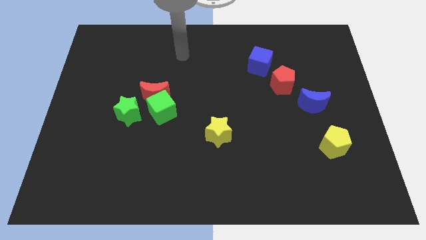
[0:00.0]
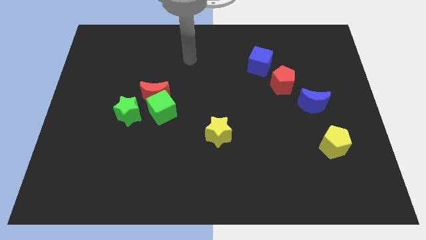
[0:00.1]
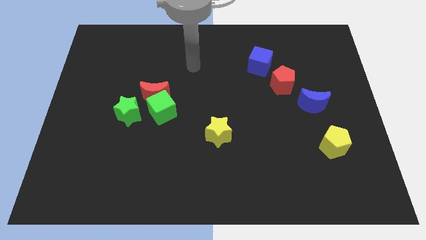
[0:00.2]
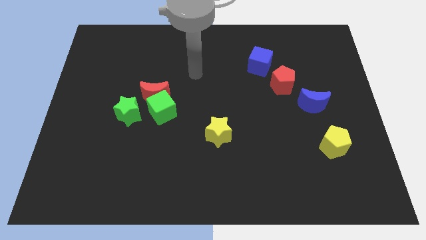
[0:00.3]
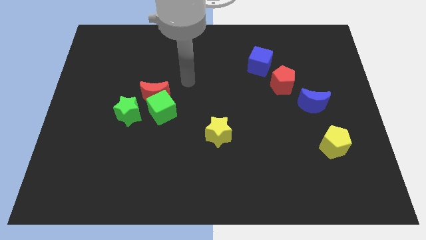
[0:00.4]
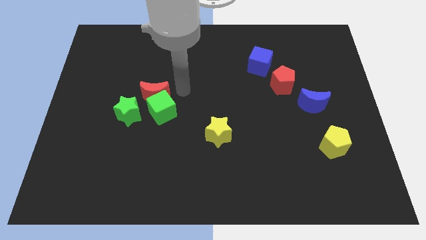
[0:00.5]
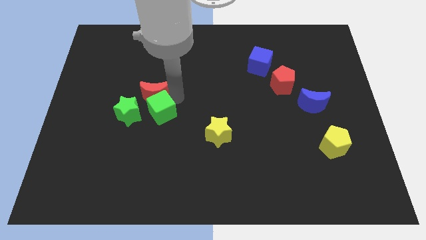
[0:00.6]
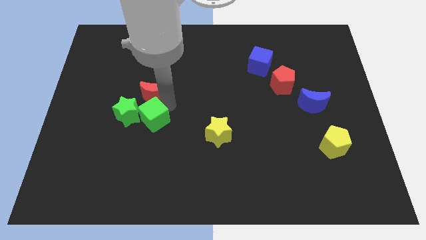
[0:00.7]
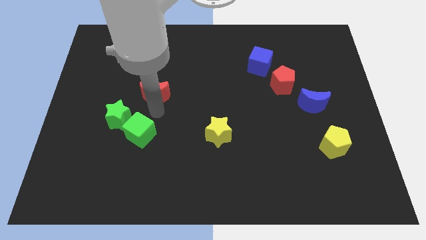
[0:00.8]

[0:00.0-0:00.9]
separate the red moon from the green cube and green star

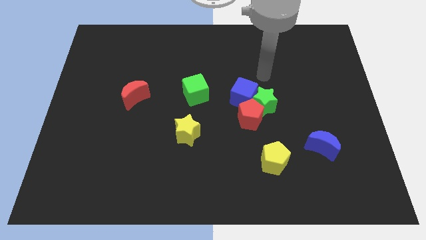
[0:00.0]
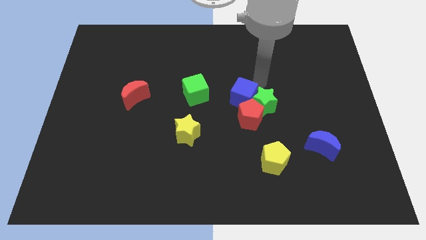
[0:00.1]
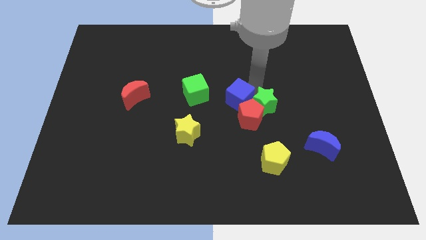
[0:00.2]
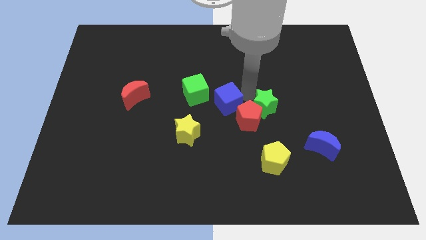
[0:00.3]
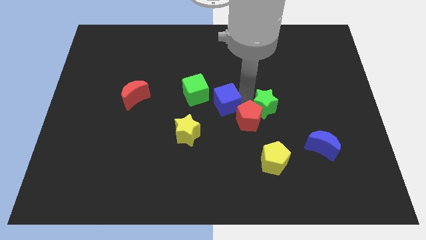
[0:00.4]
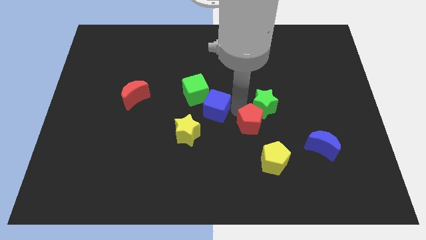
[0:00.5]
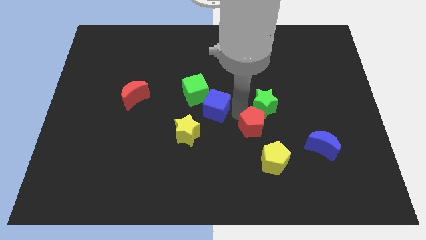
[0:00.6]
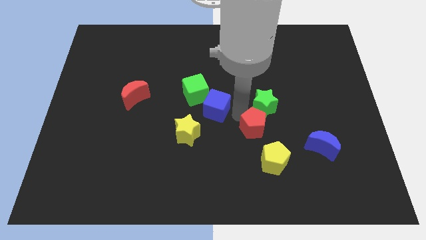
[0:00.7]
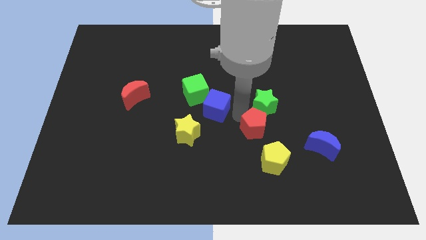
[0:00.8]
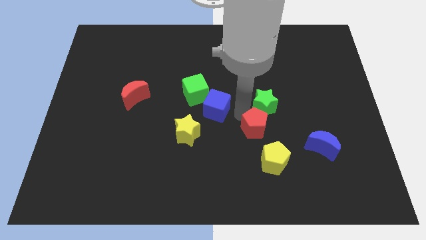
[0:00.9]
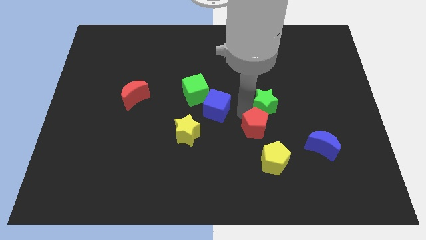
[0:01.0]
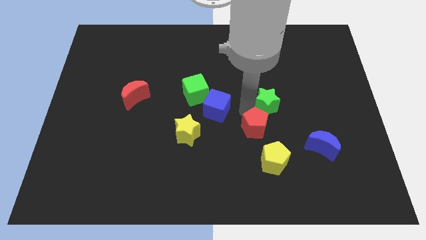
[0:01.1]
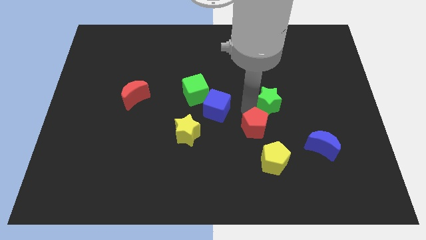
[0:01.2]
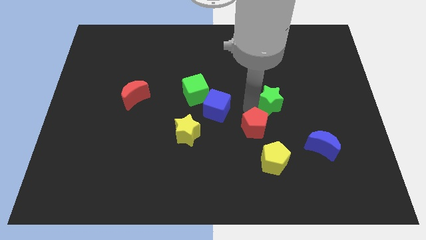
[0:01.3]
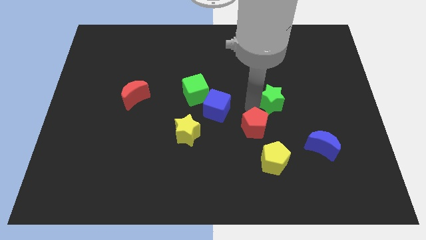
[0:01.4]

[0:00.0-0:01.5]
separate the green star from the red pentagon and blue cube

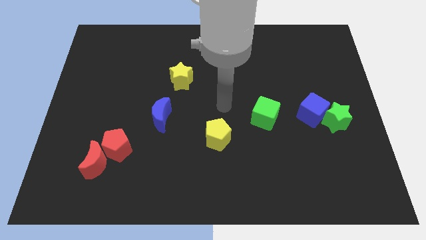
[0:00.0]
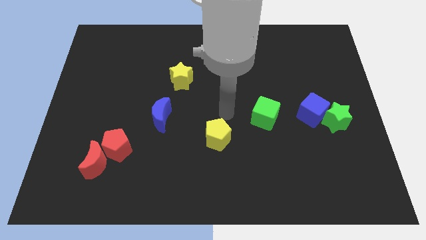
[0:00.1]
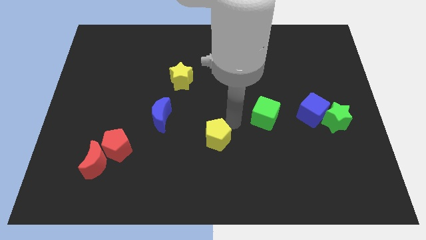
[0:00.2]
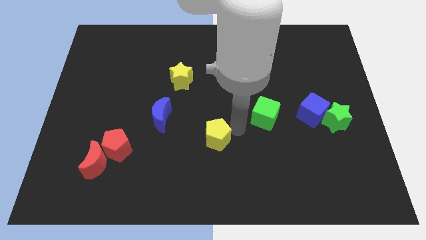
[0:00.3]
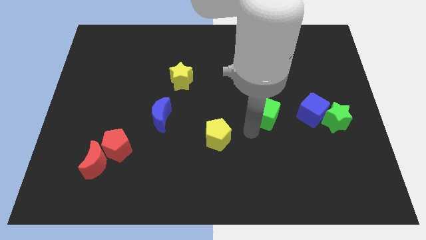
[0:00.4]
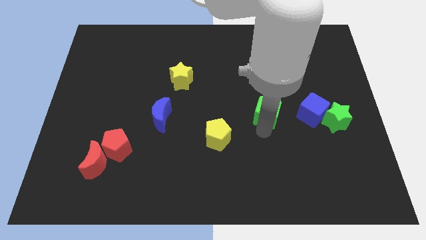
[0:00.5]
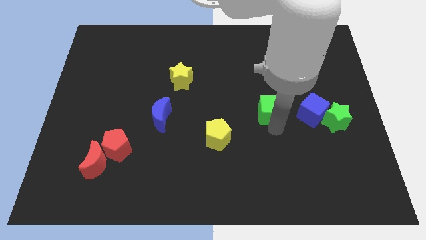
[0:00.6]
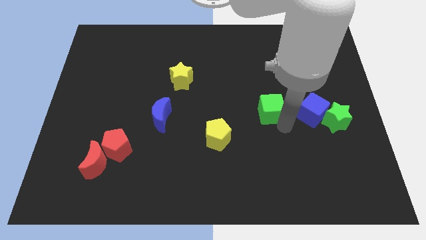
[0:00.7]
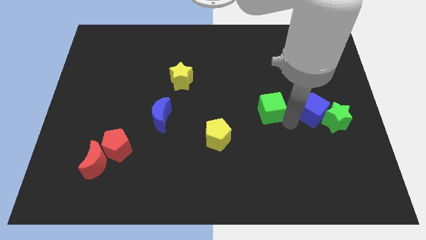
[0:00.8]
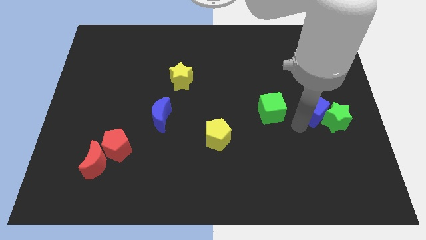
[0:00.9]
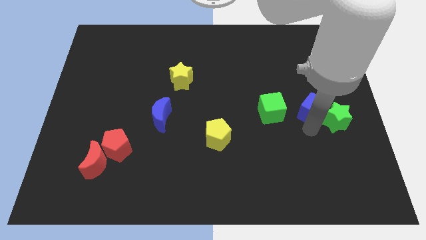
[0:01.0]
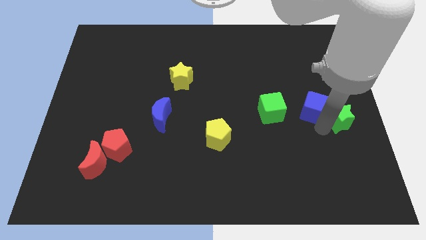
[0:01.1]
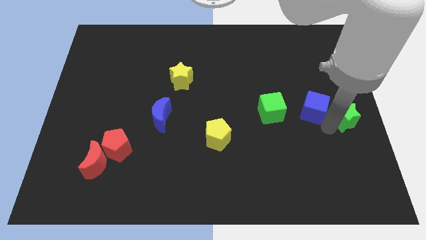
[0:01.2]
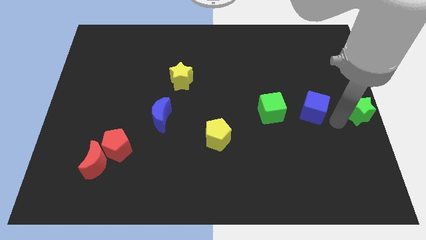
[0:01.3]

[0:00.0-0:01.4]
separate the blue cube from the green star

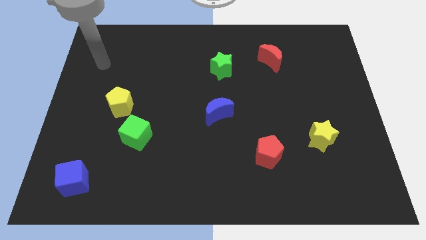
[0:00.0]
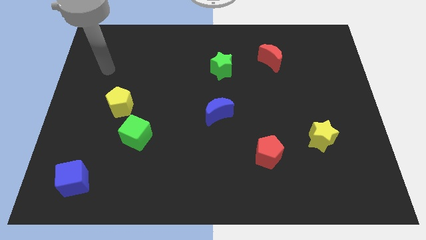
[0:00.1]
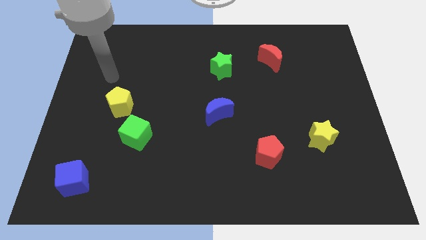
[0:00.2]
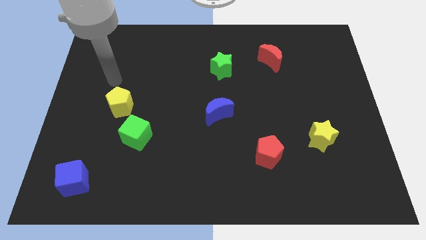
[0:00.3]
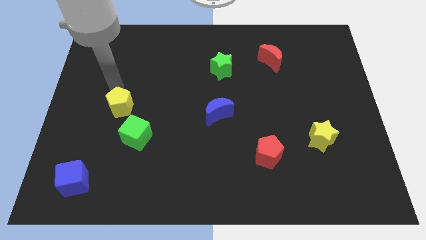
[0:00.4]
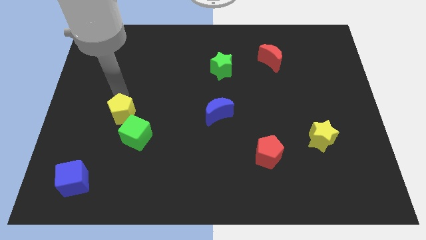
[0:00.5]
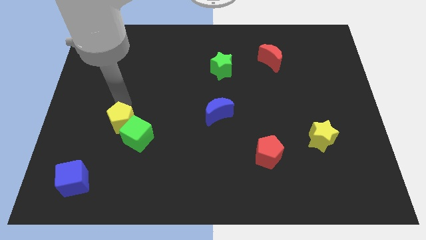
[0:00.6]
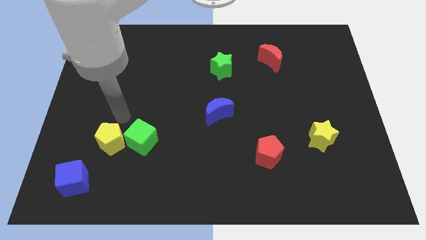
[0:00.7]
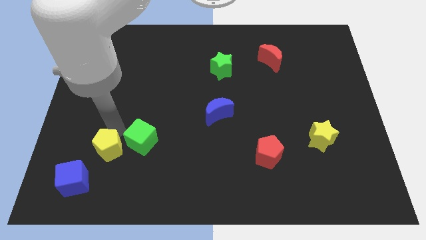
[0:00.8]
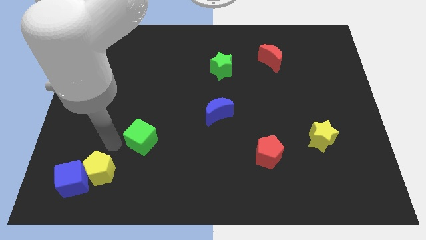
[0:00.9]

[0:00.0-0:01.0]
separate the green cube from the yellow pentagon

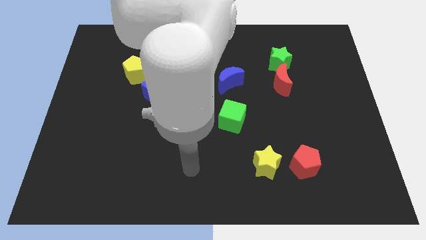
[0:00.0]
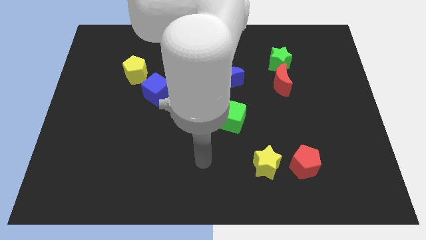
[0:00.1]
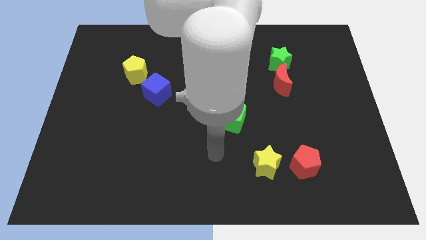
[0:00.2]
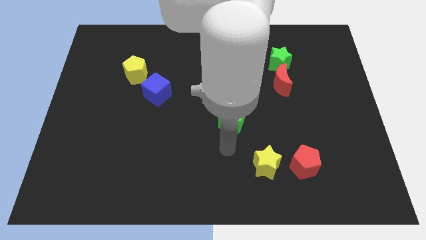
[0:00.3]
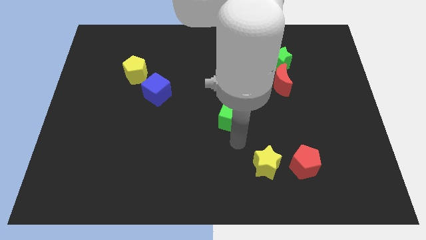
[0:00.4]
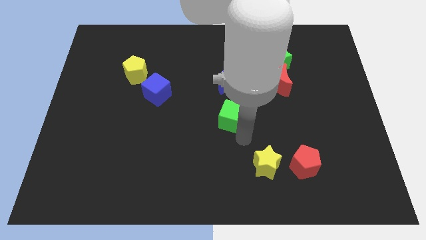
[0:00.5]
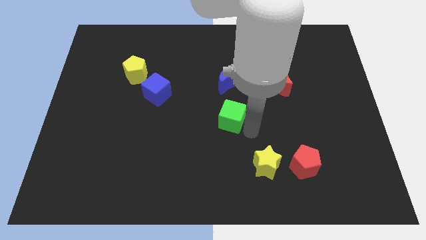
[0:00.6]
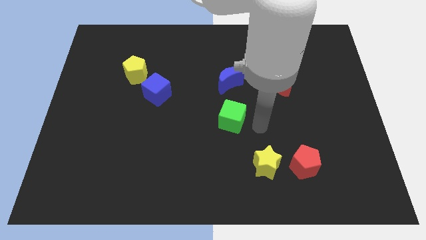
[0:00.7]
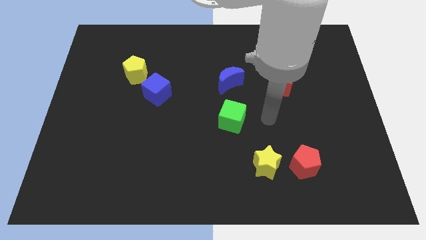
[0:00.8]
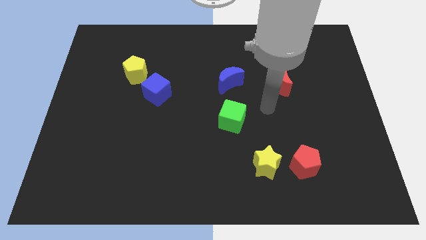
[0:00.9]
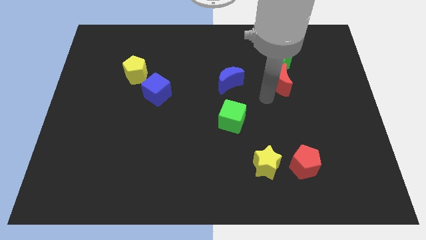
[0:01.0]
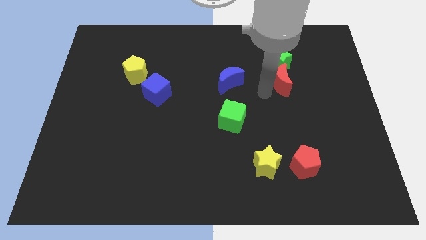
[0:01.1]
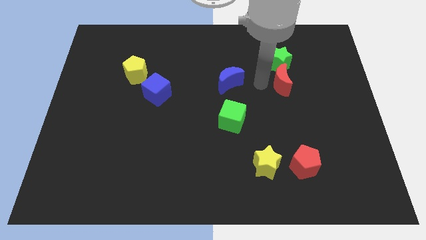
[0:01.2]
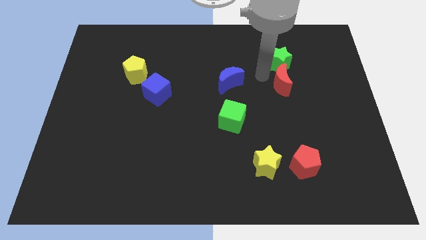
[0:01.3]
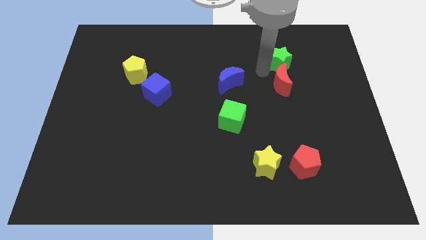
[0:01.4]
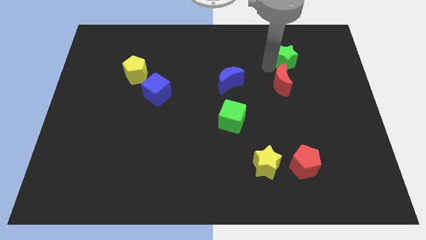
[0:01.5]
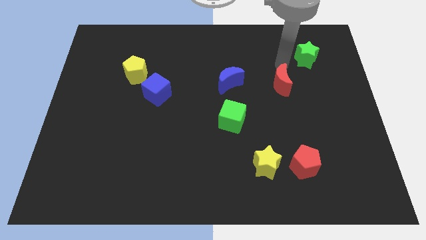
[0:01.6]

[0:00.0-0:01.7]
pull the red moon apart from the green star

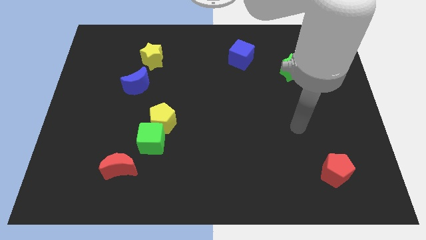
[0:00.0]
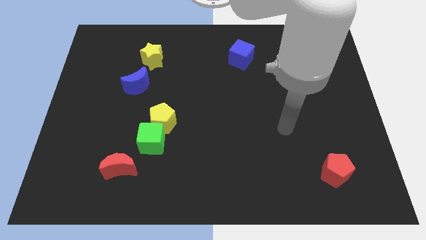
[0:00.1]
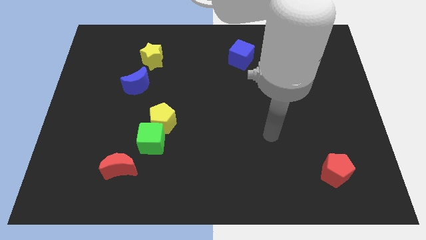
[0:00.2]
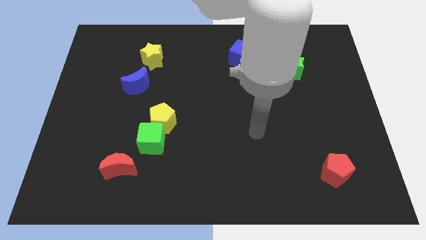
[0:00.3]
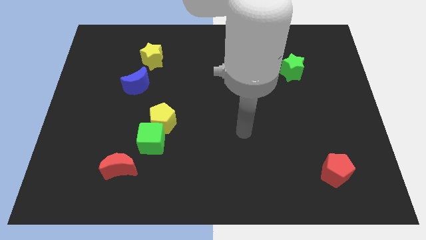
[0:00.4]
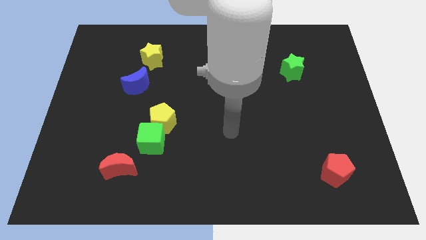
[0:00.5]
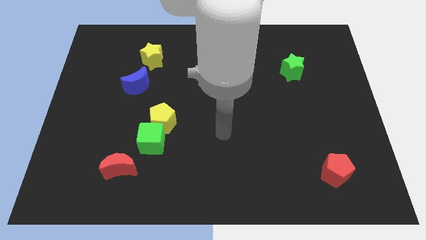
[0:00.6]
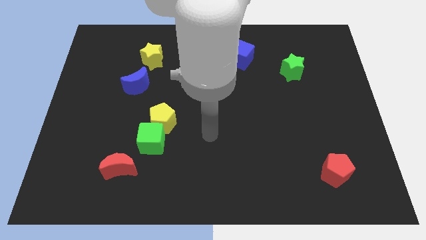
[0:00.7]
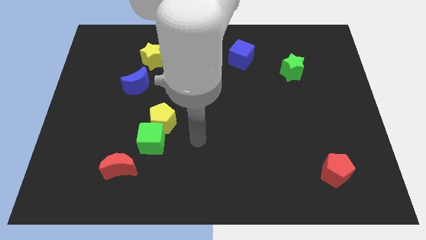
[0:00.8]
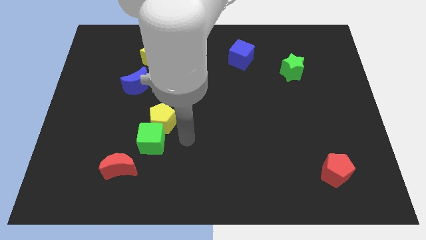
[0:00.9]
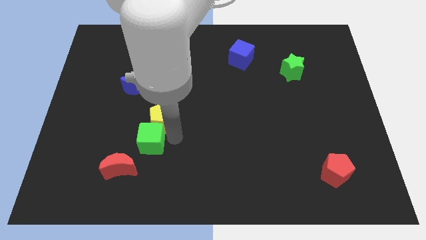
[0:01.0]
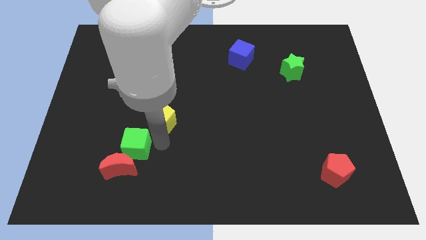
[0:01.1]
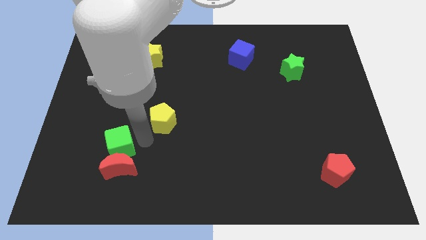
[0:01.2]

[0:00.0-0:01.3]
separate the yellow pentagon from the green cube

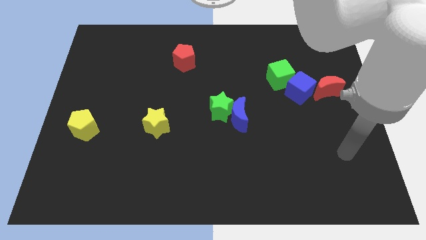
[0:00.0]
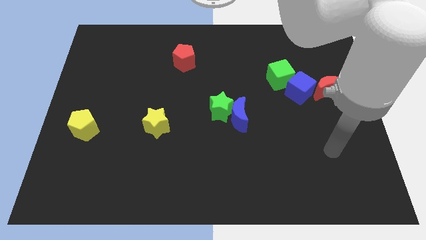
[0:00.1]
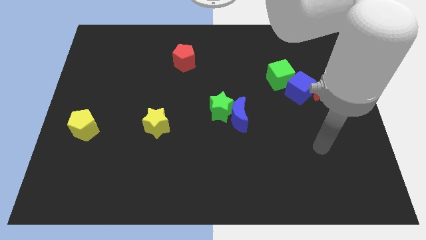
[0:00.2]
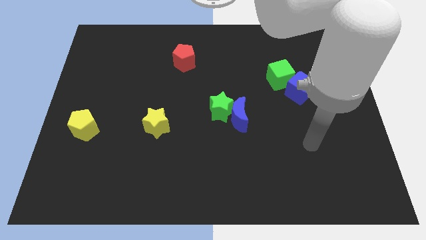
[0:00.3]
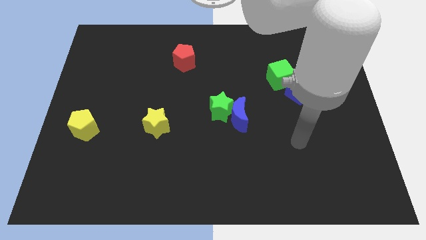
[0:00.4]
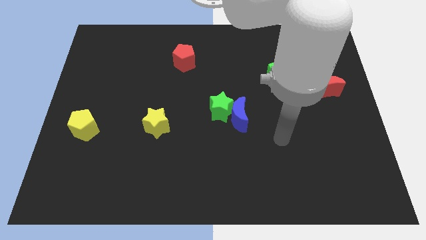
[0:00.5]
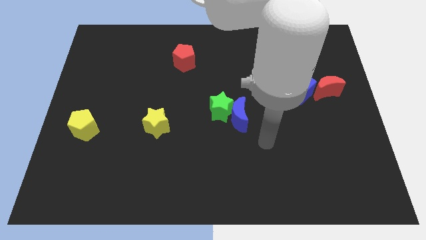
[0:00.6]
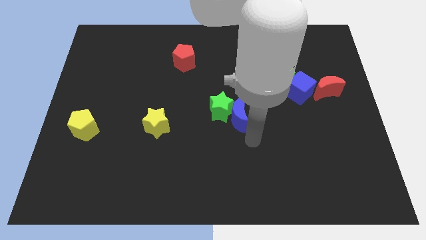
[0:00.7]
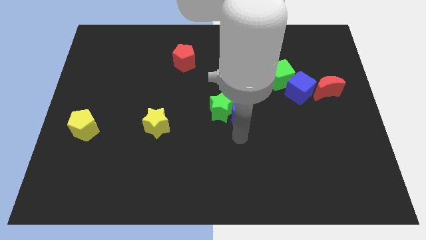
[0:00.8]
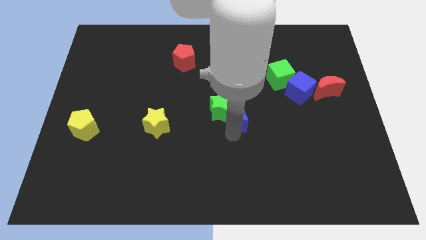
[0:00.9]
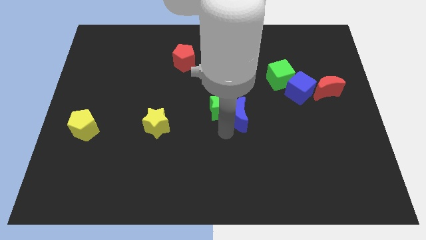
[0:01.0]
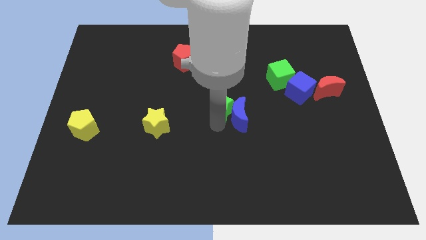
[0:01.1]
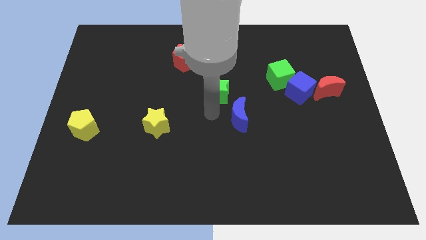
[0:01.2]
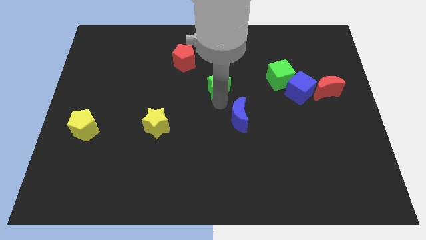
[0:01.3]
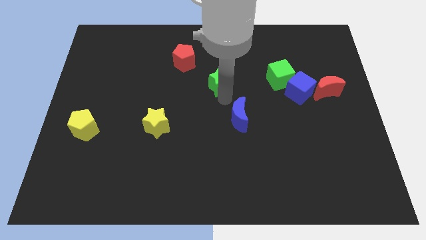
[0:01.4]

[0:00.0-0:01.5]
pull the blue moon apart from the green star

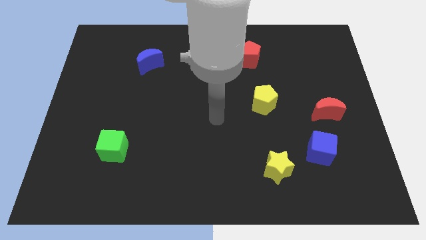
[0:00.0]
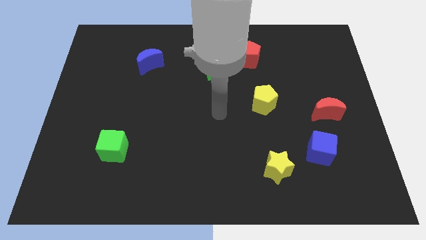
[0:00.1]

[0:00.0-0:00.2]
pull the red pentagon apart from the green star
